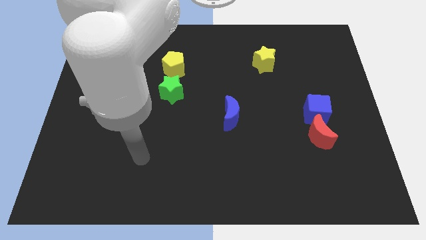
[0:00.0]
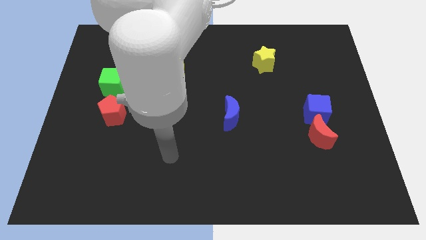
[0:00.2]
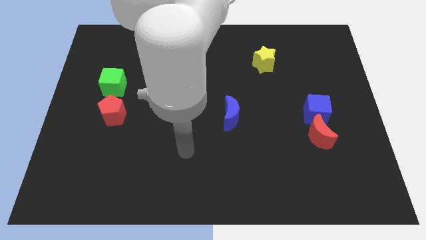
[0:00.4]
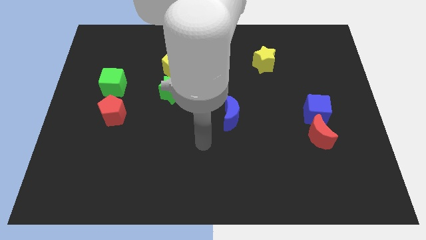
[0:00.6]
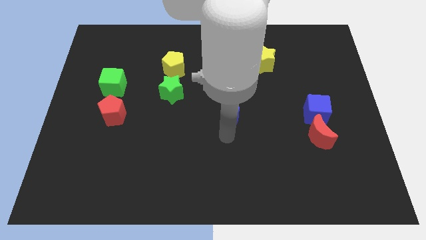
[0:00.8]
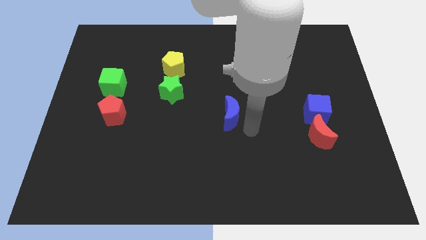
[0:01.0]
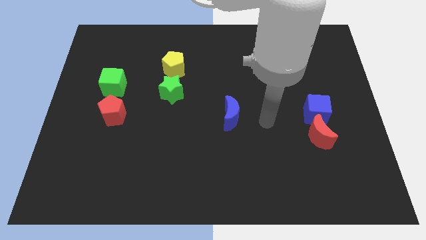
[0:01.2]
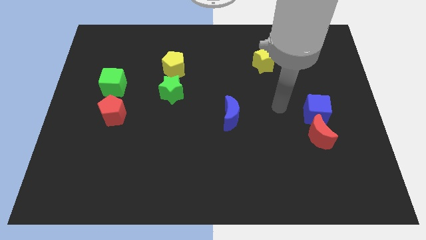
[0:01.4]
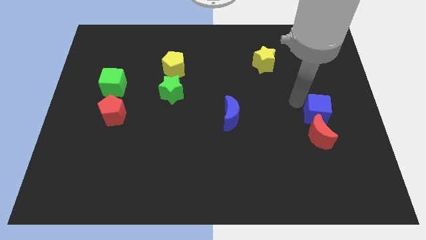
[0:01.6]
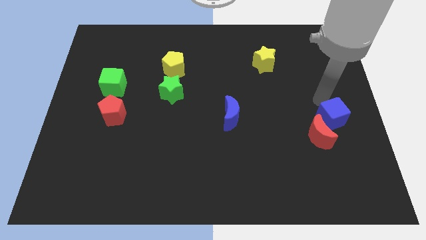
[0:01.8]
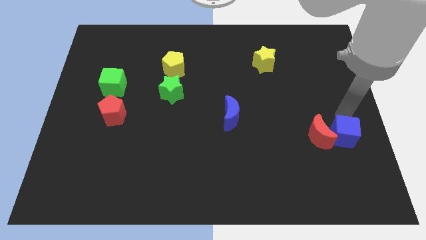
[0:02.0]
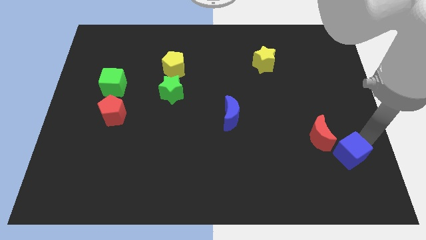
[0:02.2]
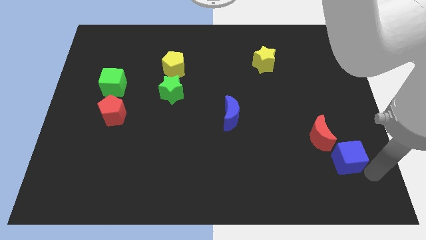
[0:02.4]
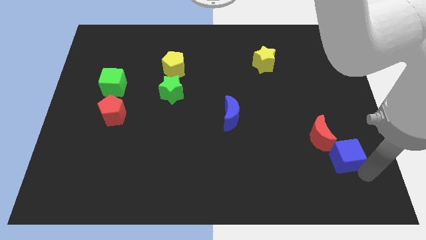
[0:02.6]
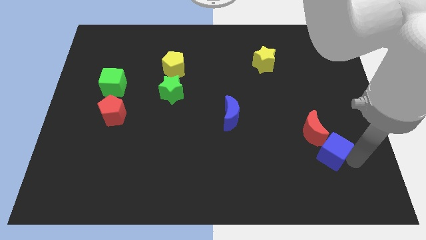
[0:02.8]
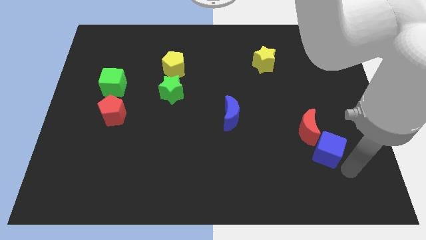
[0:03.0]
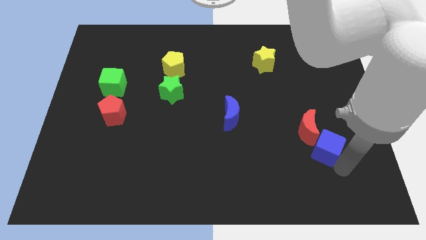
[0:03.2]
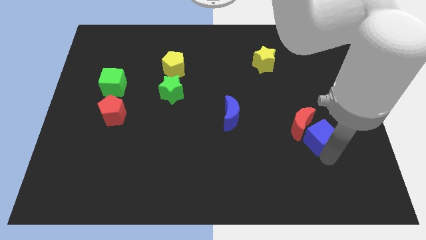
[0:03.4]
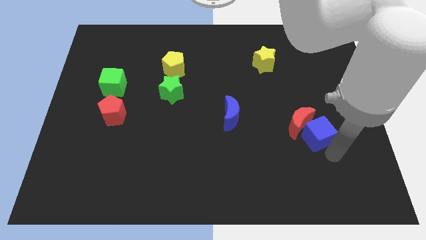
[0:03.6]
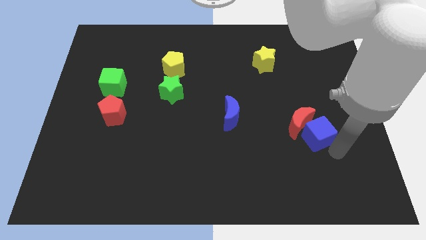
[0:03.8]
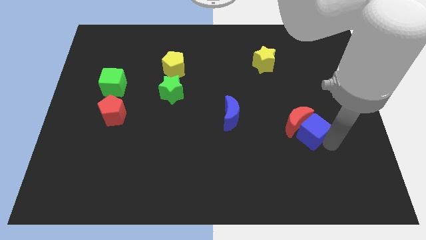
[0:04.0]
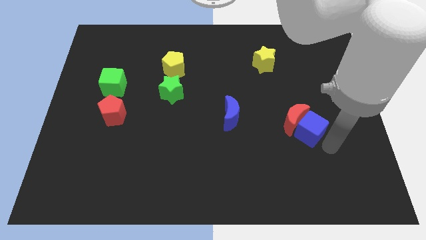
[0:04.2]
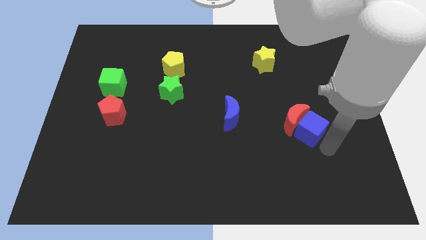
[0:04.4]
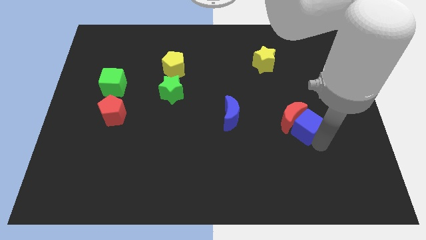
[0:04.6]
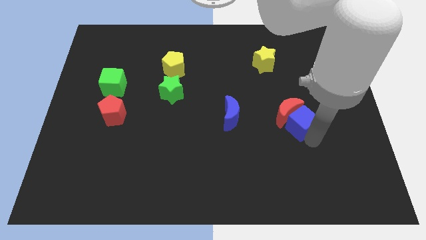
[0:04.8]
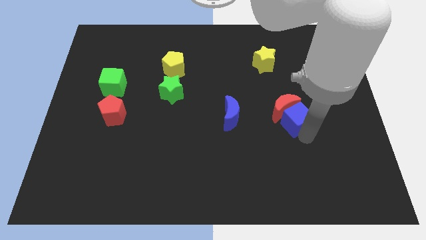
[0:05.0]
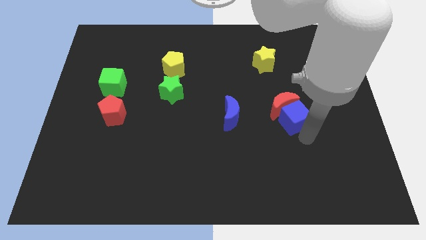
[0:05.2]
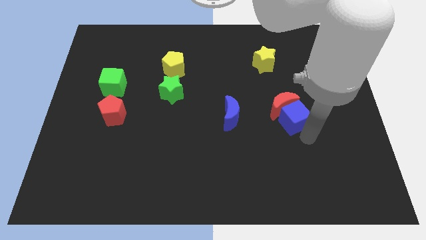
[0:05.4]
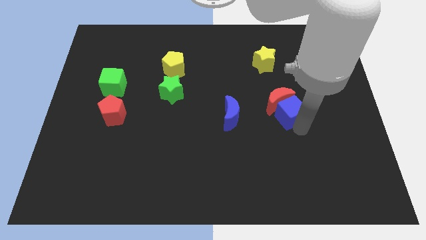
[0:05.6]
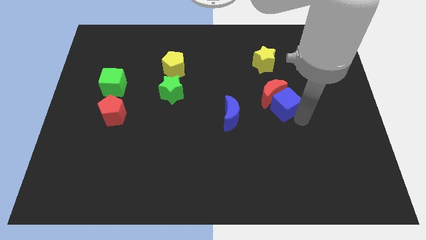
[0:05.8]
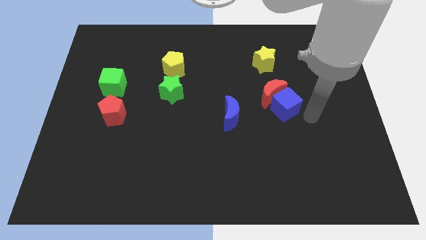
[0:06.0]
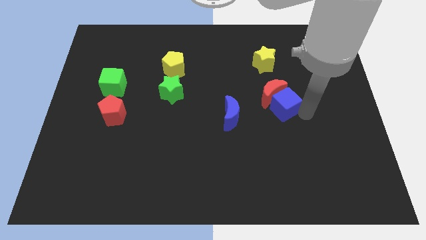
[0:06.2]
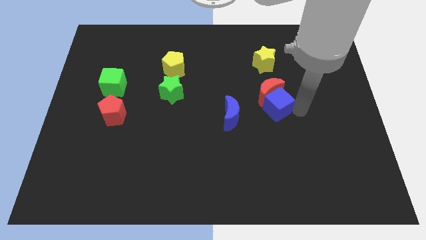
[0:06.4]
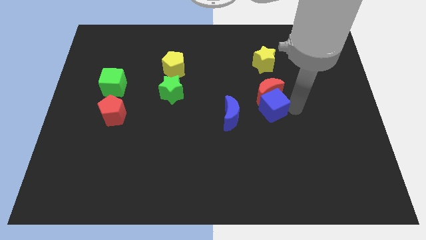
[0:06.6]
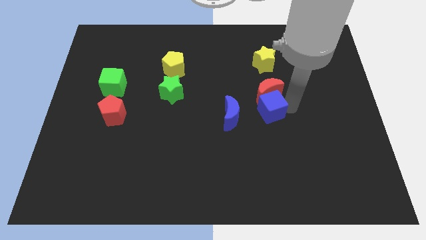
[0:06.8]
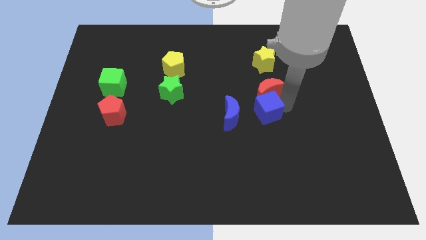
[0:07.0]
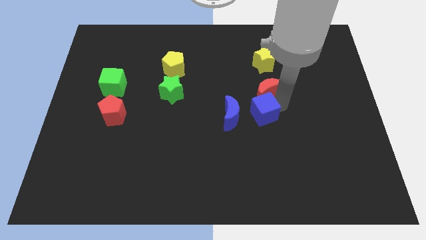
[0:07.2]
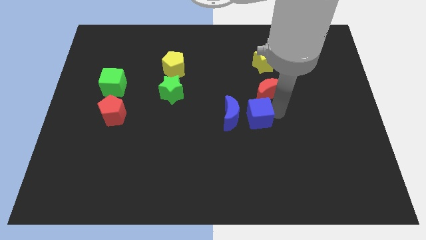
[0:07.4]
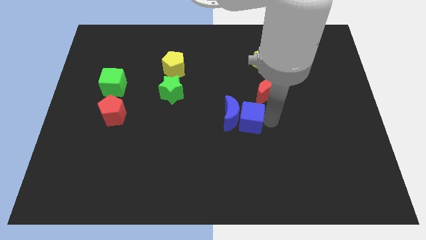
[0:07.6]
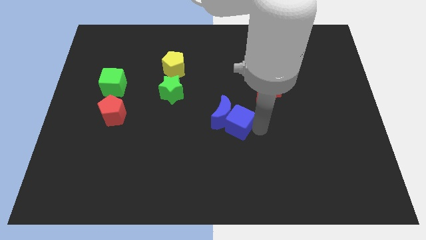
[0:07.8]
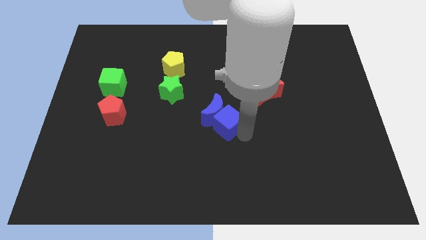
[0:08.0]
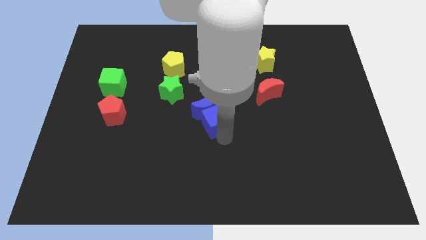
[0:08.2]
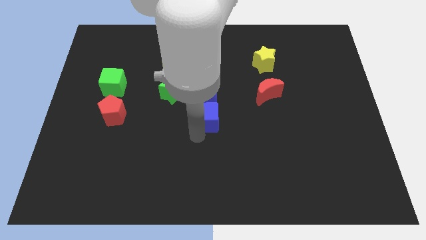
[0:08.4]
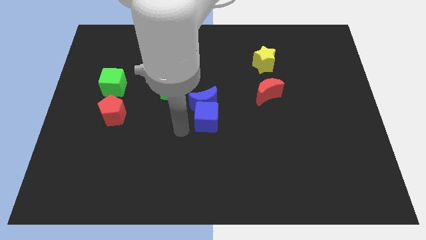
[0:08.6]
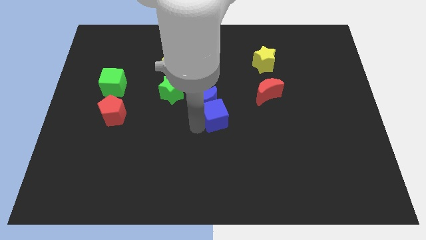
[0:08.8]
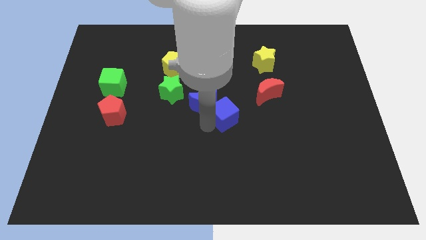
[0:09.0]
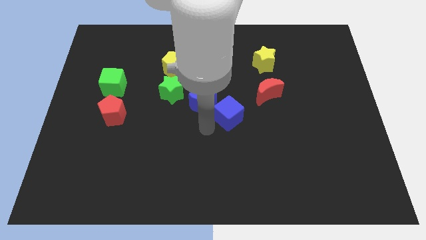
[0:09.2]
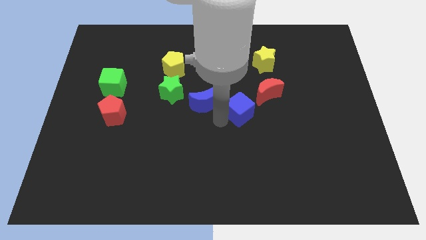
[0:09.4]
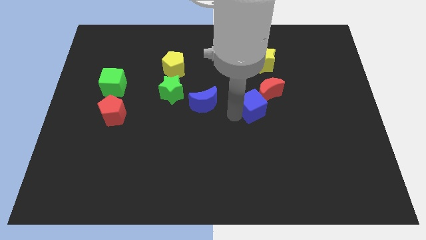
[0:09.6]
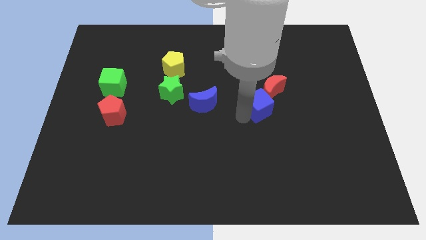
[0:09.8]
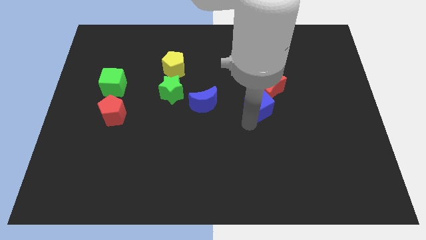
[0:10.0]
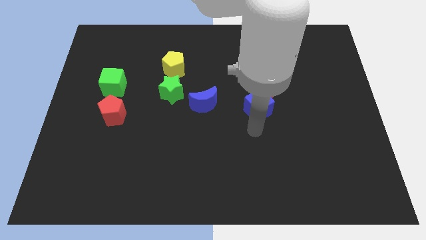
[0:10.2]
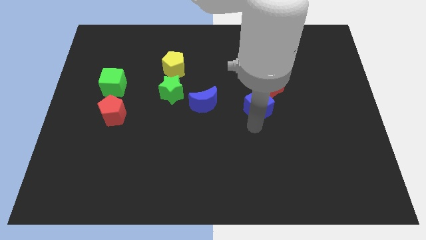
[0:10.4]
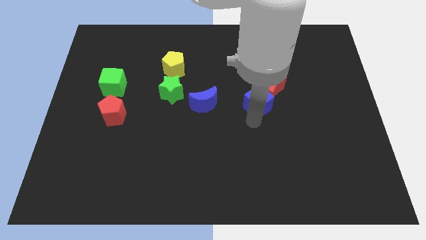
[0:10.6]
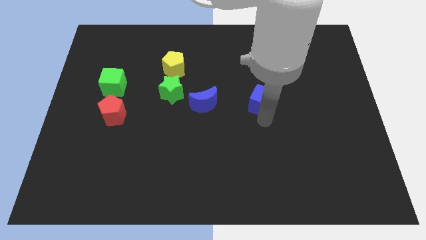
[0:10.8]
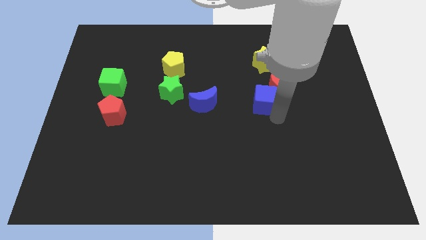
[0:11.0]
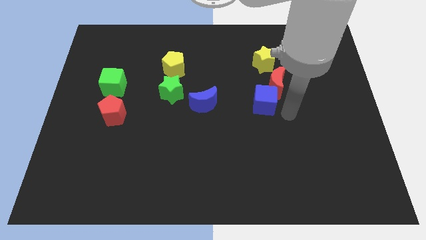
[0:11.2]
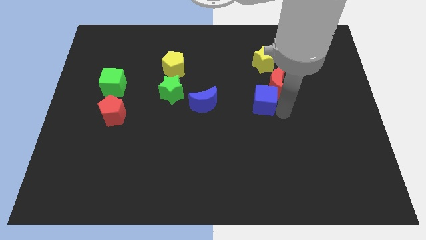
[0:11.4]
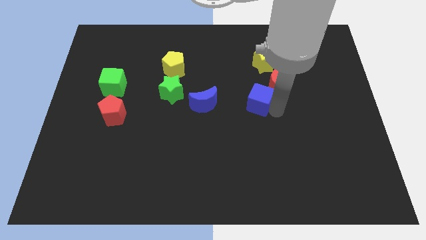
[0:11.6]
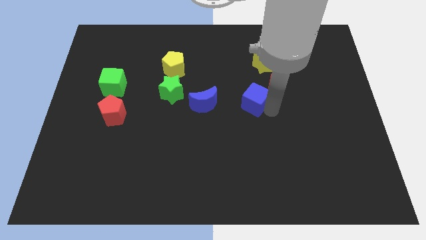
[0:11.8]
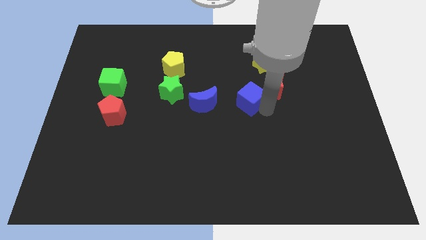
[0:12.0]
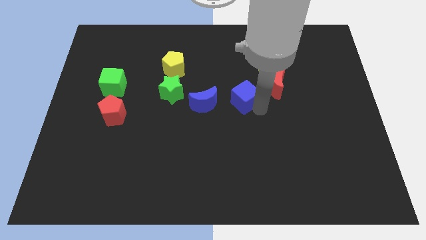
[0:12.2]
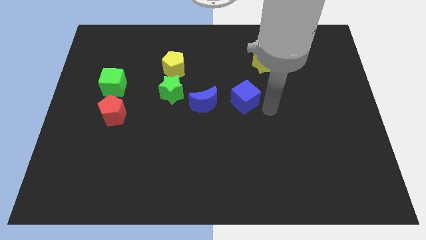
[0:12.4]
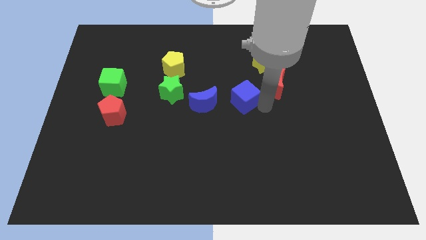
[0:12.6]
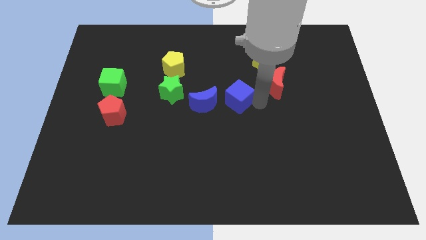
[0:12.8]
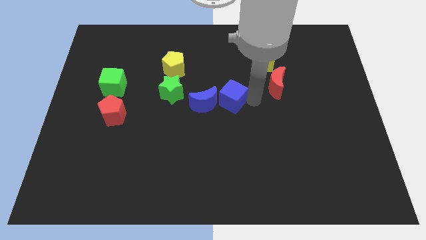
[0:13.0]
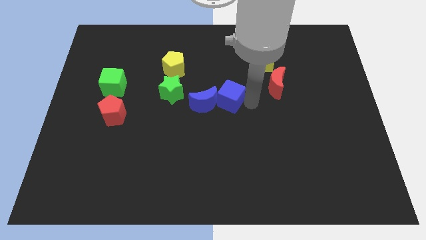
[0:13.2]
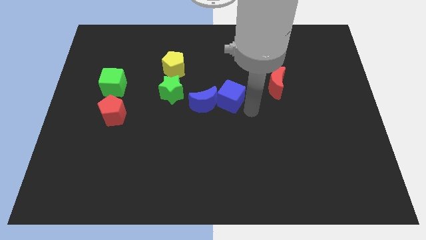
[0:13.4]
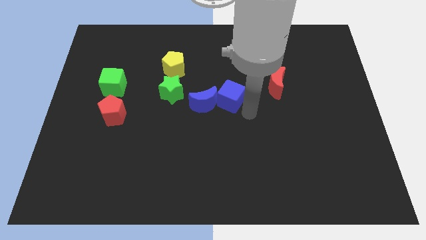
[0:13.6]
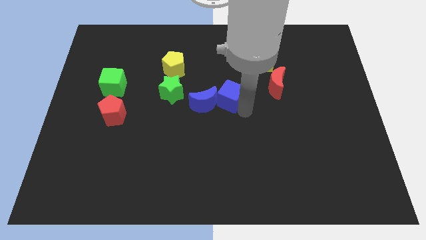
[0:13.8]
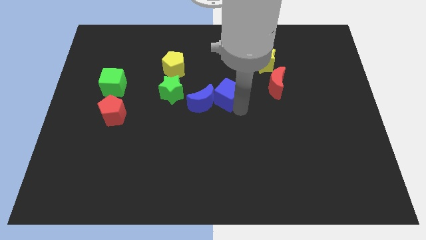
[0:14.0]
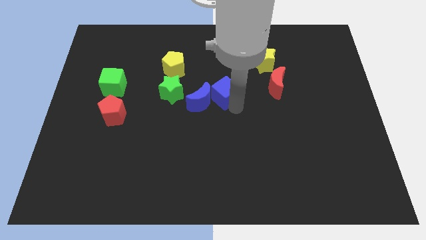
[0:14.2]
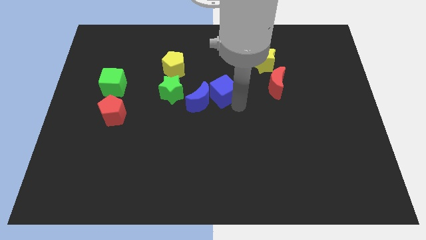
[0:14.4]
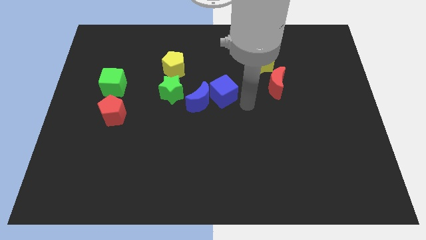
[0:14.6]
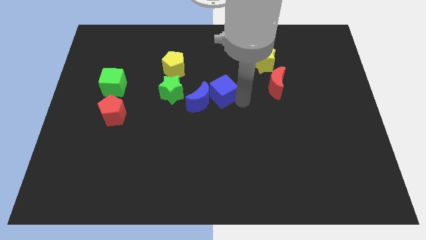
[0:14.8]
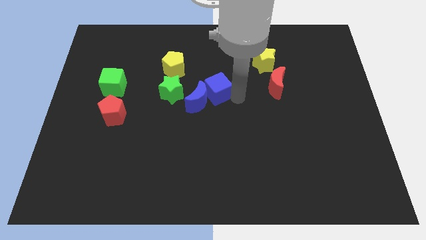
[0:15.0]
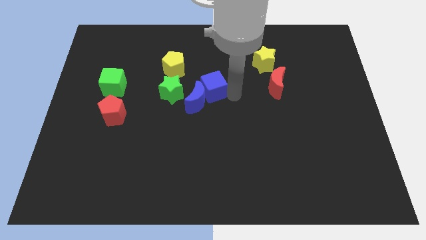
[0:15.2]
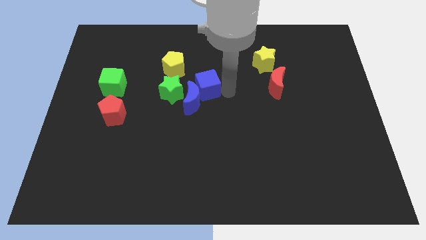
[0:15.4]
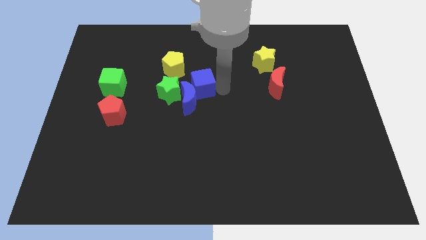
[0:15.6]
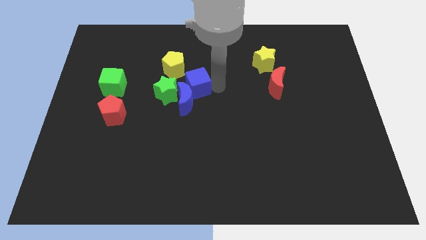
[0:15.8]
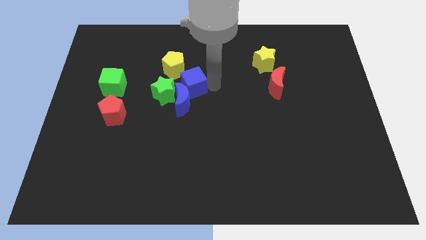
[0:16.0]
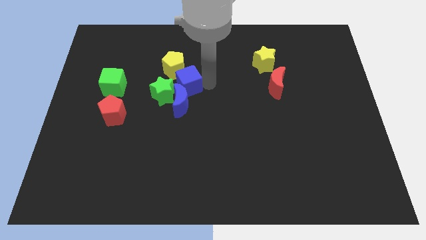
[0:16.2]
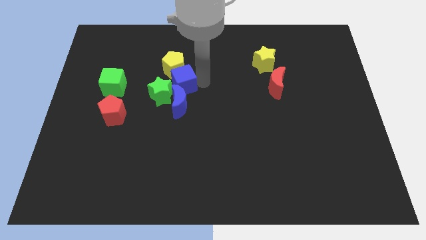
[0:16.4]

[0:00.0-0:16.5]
slide the blue cube towards the yellow pentagon
